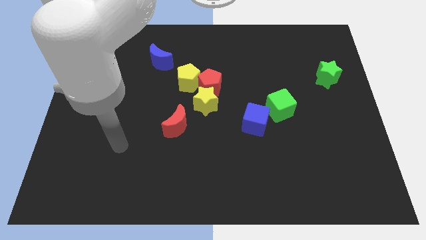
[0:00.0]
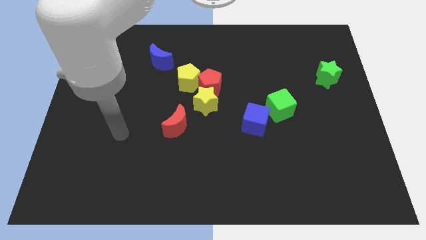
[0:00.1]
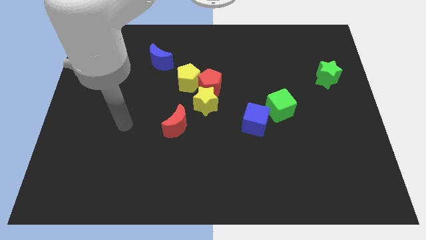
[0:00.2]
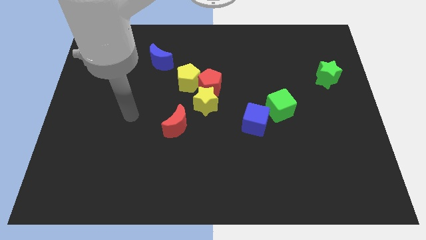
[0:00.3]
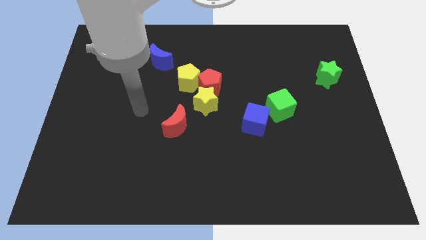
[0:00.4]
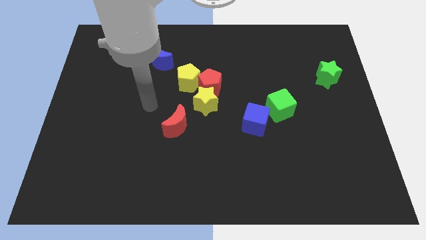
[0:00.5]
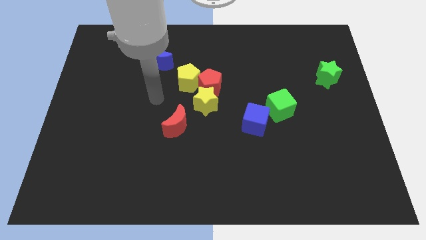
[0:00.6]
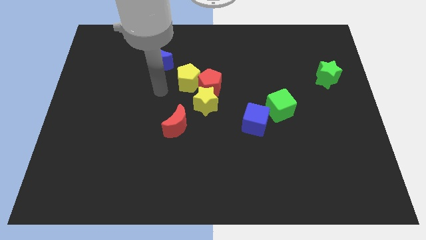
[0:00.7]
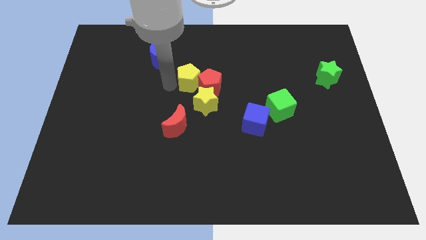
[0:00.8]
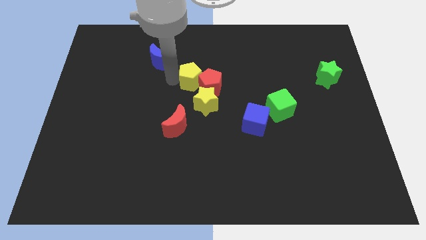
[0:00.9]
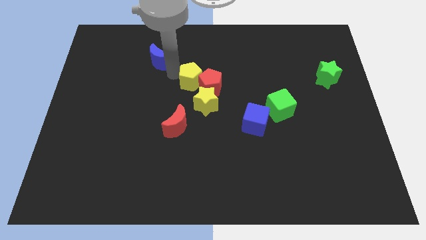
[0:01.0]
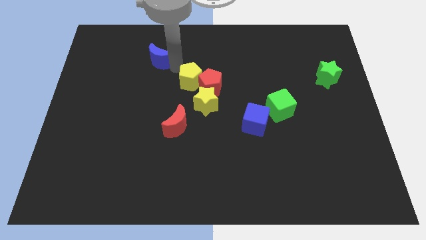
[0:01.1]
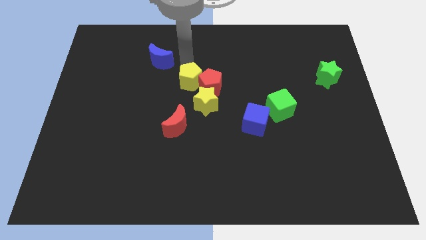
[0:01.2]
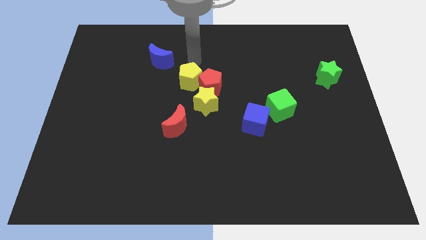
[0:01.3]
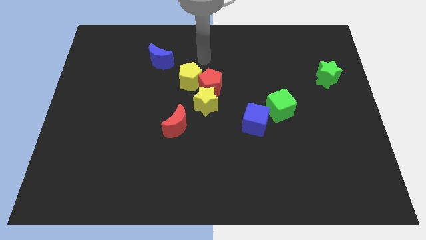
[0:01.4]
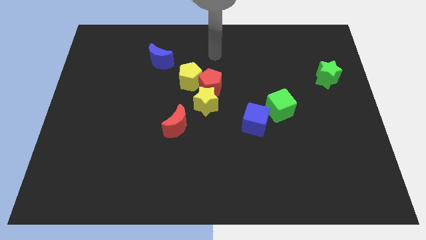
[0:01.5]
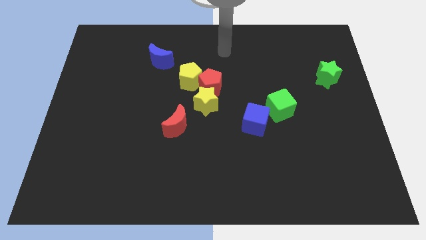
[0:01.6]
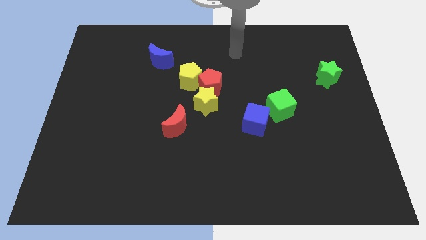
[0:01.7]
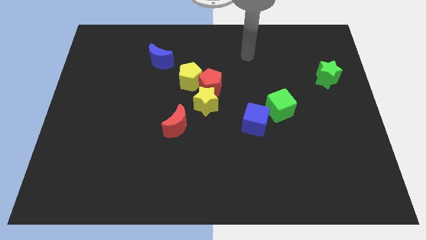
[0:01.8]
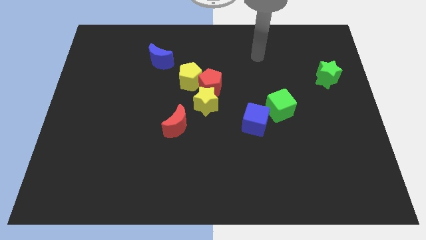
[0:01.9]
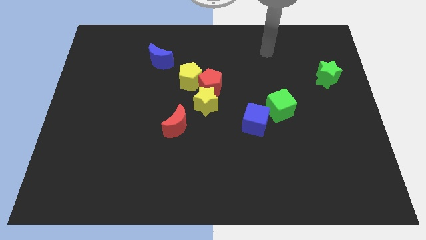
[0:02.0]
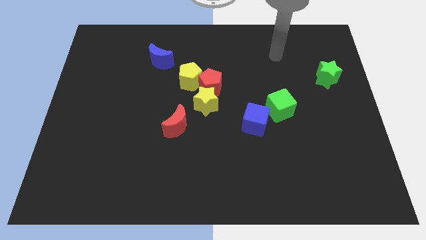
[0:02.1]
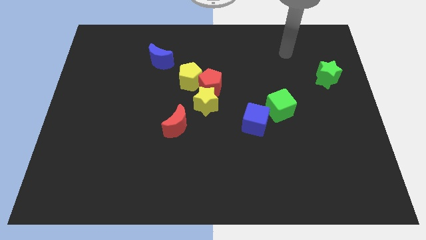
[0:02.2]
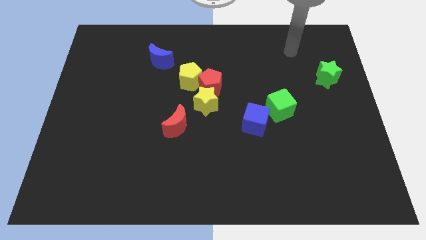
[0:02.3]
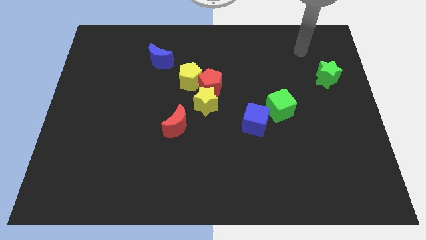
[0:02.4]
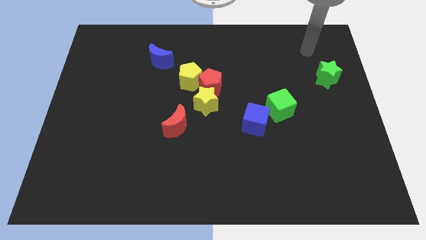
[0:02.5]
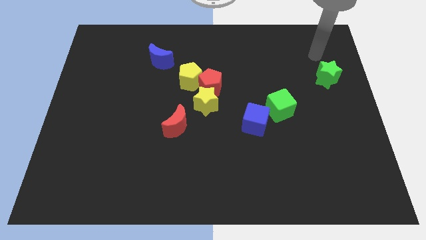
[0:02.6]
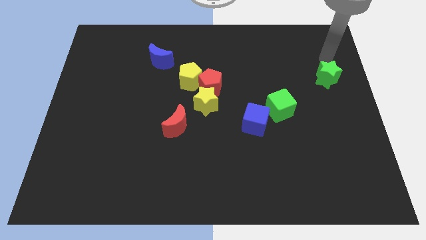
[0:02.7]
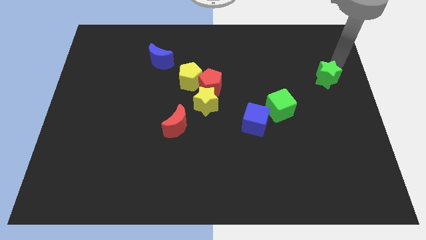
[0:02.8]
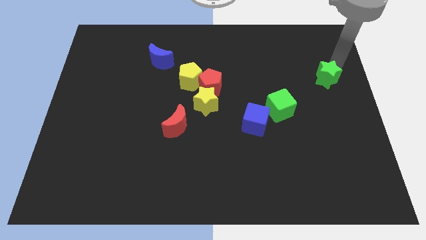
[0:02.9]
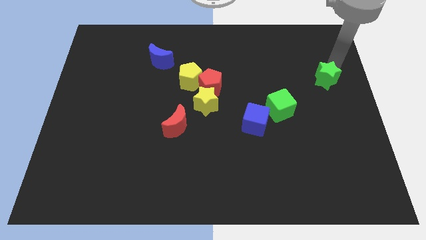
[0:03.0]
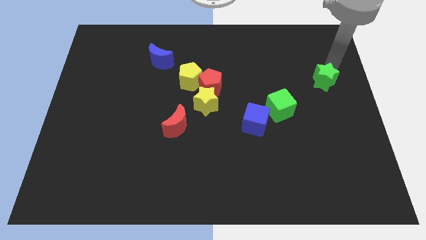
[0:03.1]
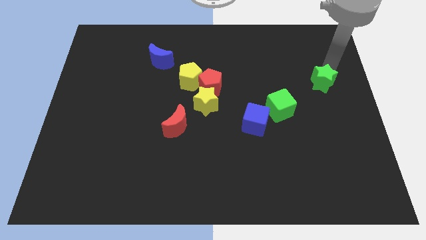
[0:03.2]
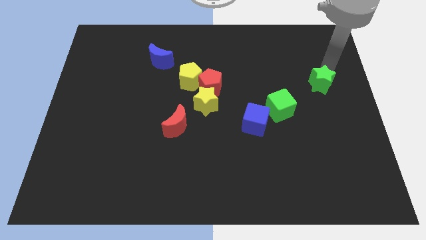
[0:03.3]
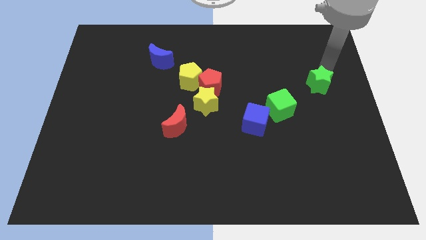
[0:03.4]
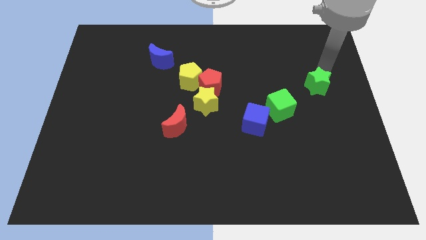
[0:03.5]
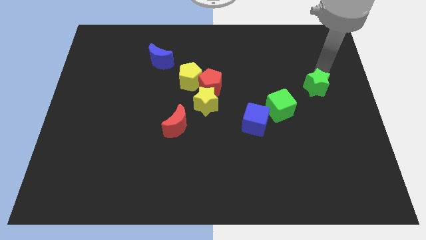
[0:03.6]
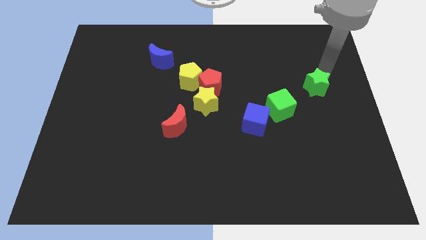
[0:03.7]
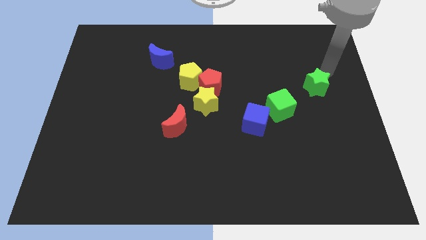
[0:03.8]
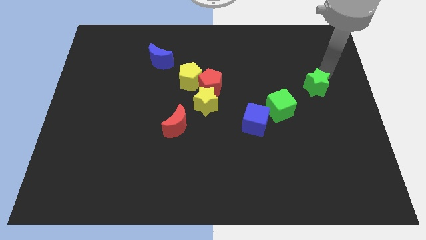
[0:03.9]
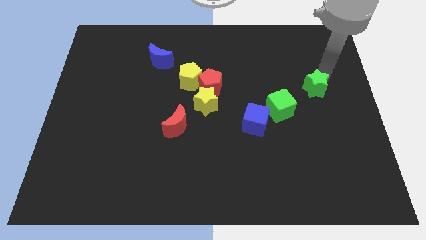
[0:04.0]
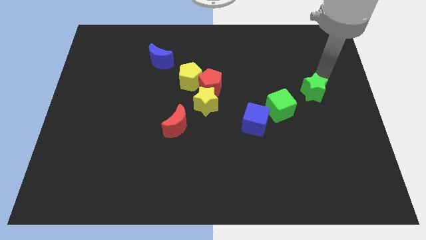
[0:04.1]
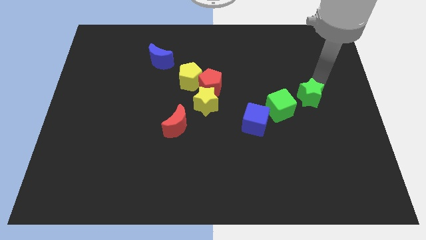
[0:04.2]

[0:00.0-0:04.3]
slide the green star a bit downwards and then left

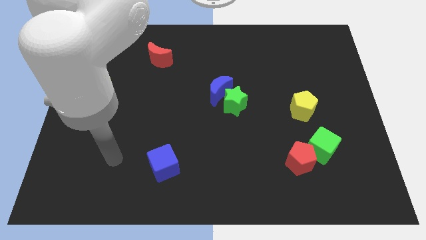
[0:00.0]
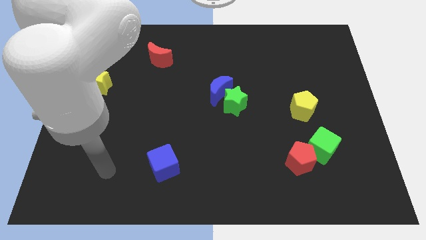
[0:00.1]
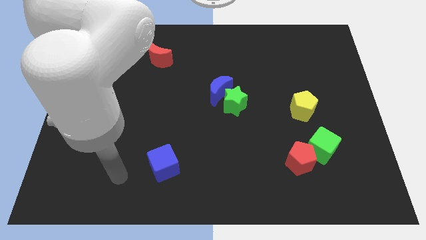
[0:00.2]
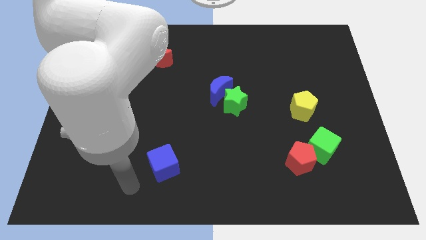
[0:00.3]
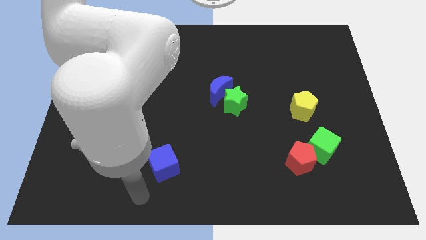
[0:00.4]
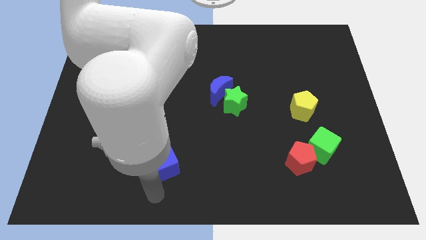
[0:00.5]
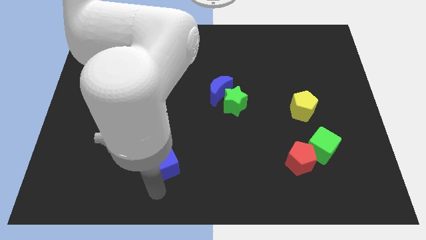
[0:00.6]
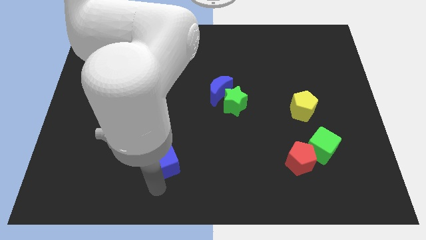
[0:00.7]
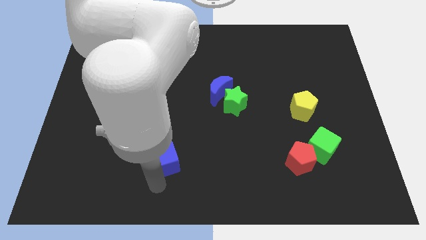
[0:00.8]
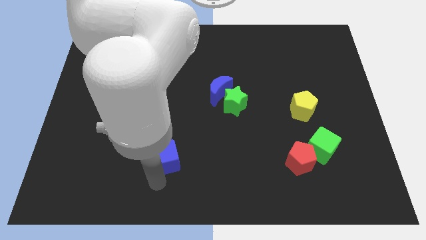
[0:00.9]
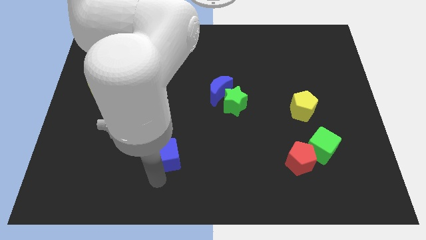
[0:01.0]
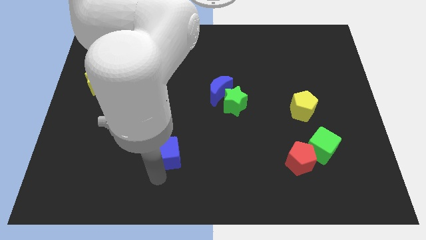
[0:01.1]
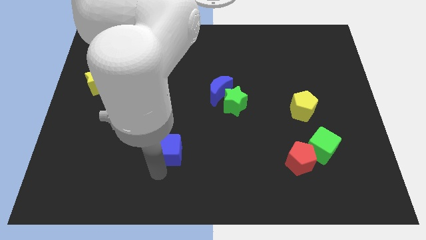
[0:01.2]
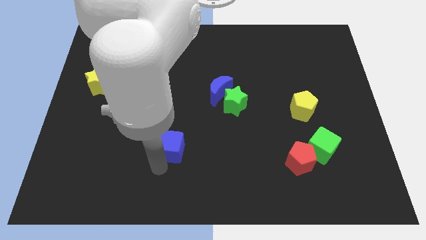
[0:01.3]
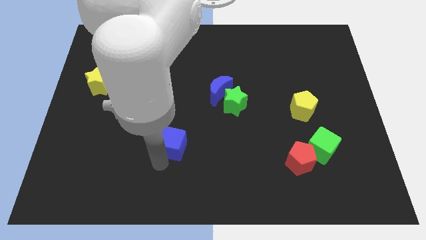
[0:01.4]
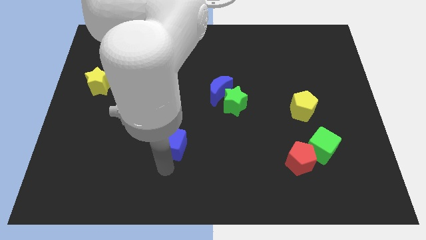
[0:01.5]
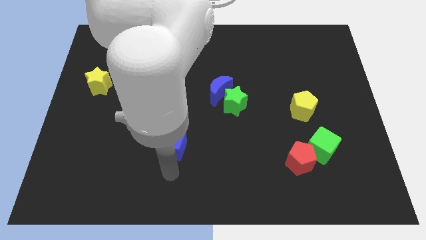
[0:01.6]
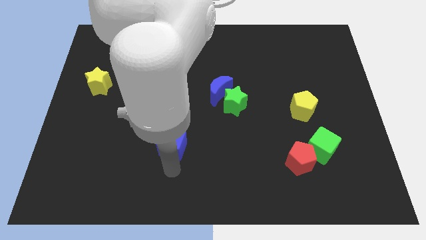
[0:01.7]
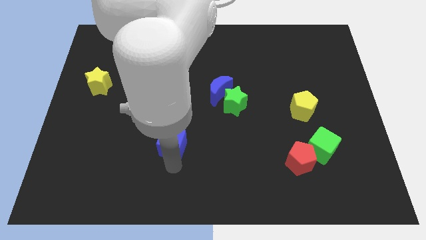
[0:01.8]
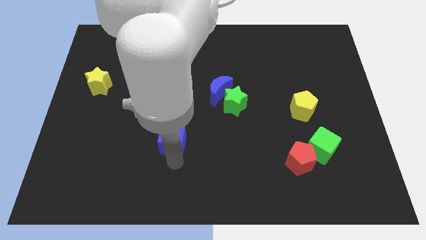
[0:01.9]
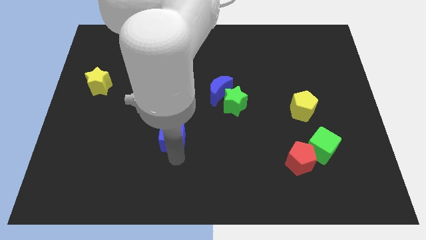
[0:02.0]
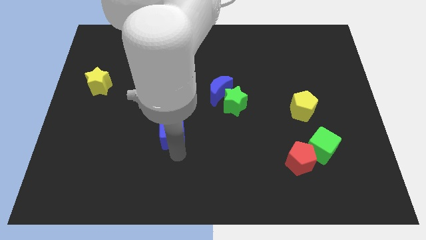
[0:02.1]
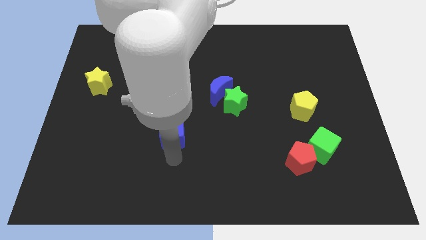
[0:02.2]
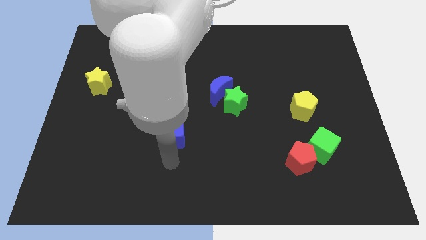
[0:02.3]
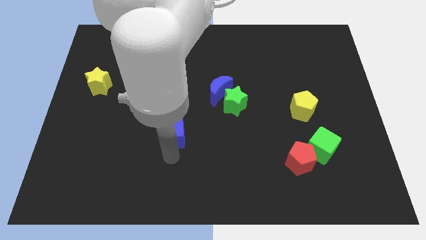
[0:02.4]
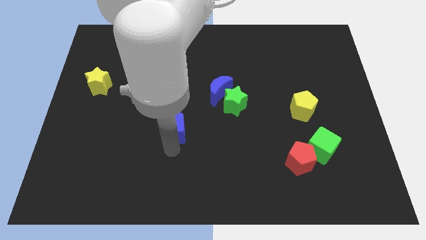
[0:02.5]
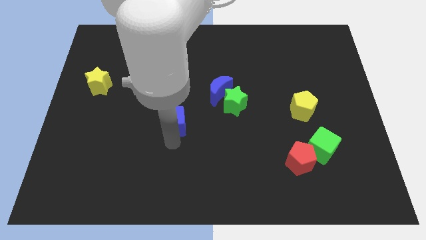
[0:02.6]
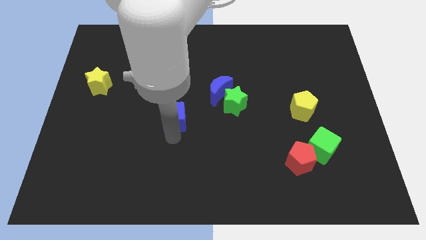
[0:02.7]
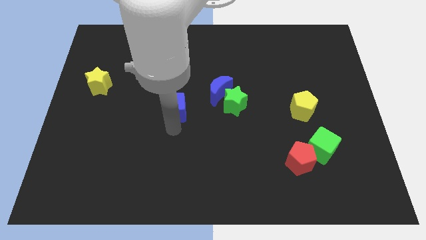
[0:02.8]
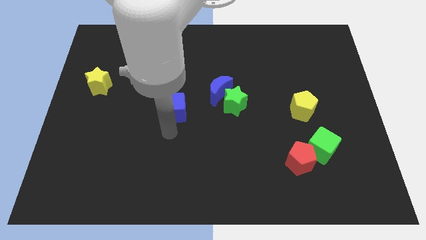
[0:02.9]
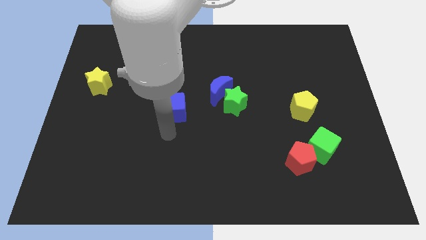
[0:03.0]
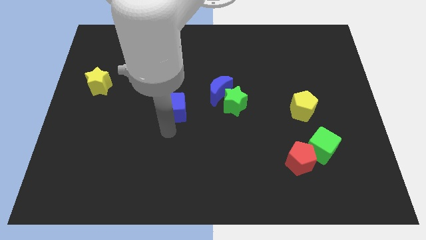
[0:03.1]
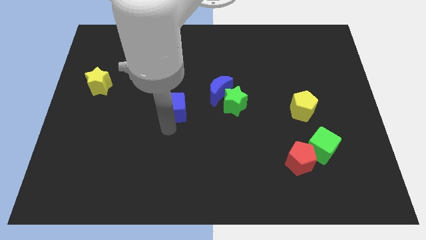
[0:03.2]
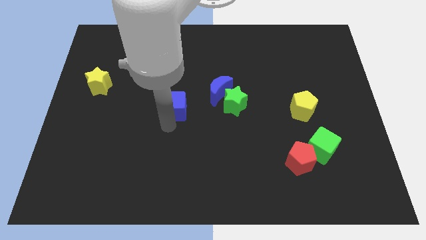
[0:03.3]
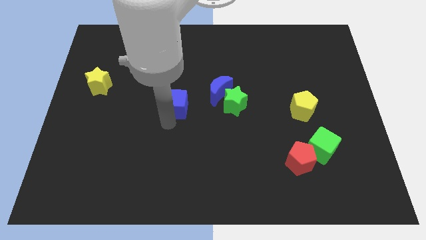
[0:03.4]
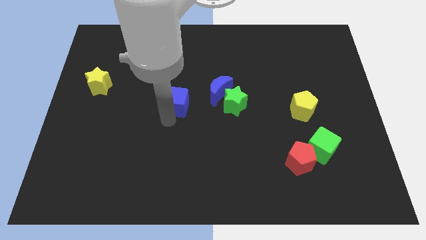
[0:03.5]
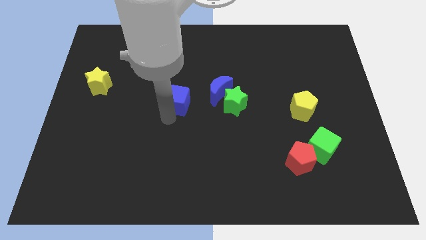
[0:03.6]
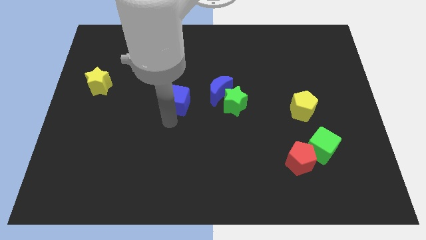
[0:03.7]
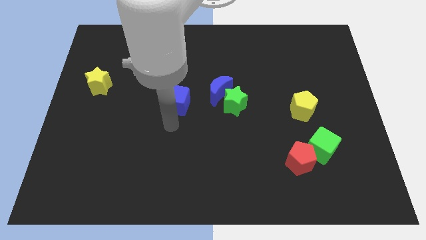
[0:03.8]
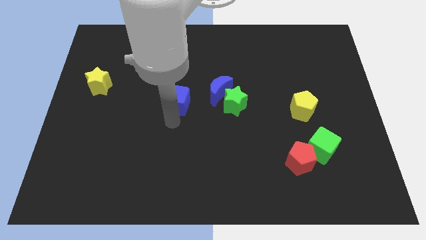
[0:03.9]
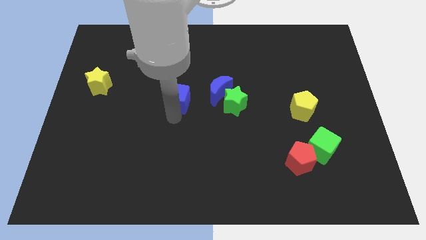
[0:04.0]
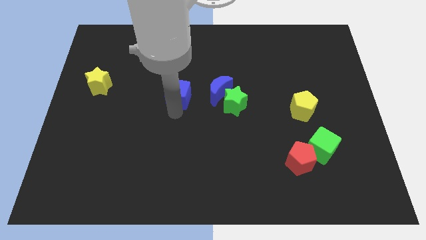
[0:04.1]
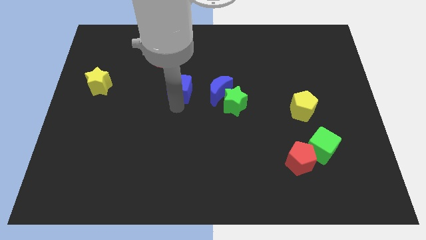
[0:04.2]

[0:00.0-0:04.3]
move the blue cube up
